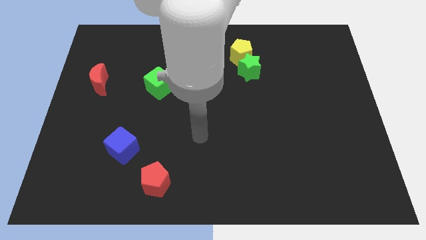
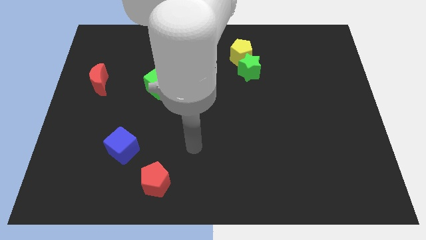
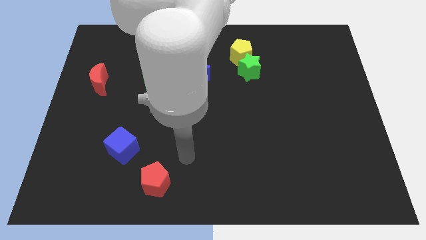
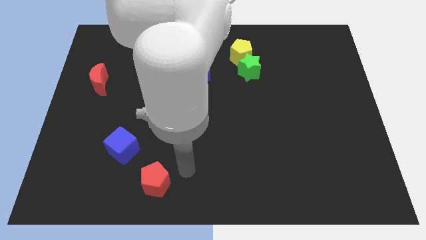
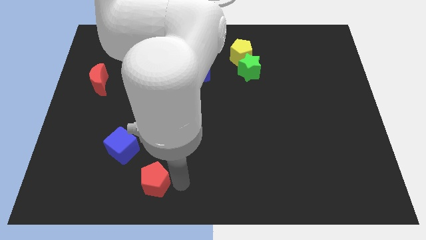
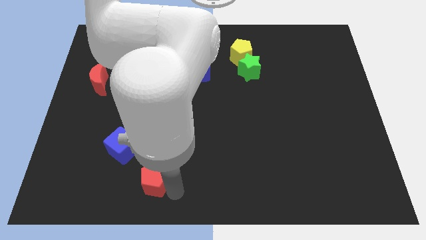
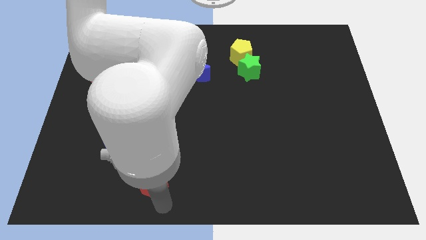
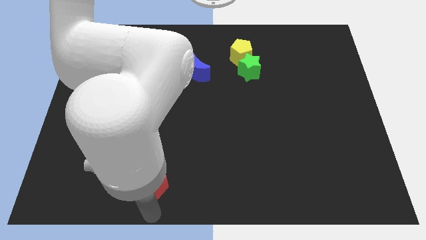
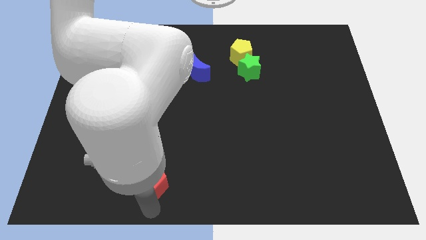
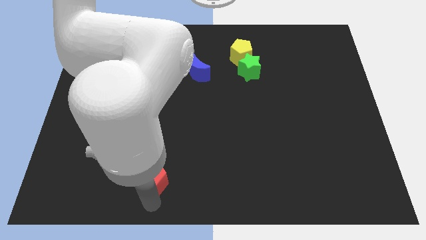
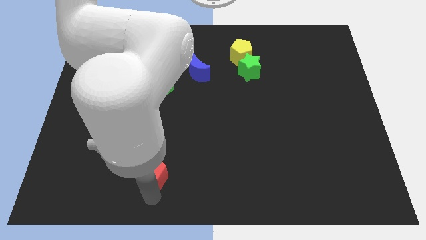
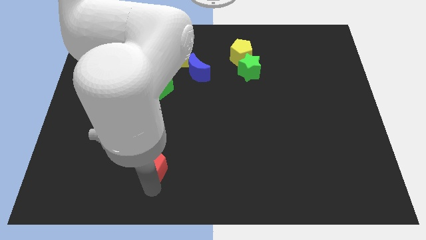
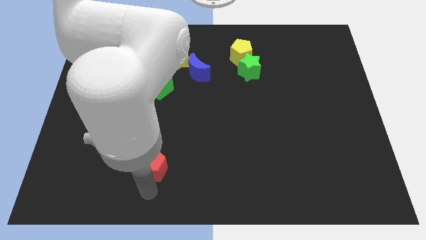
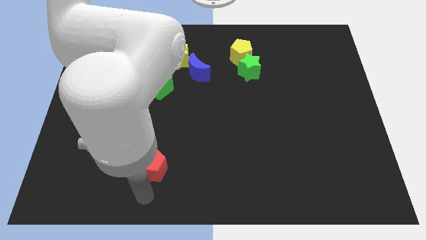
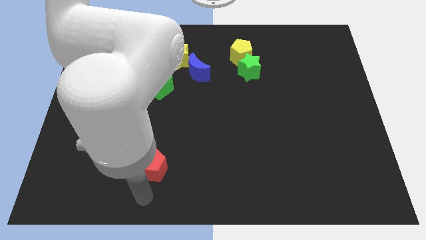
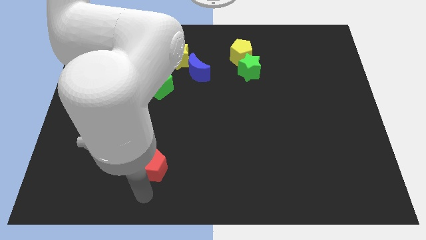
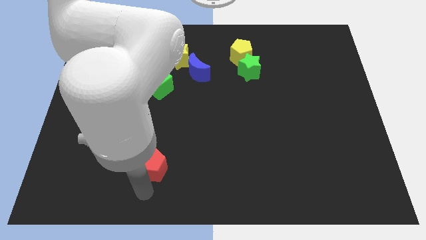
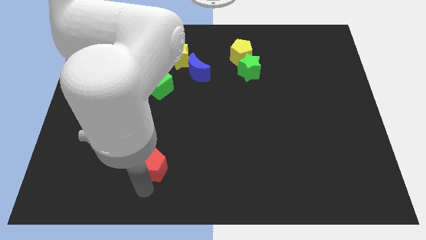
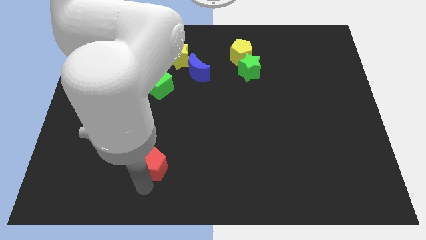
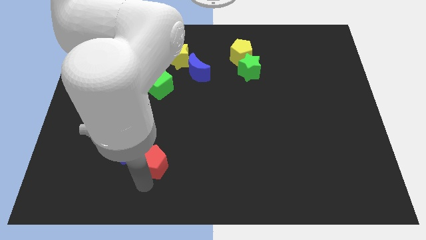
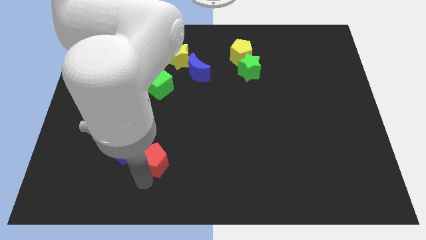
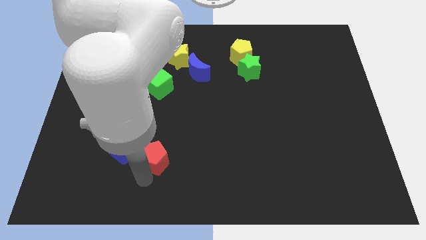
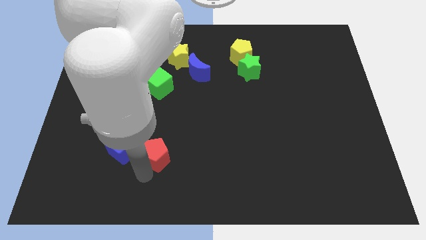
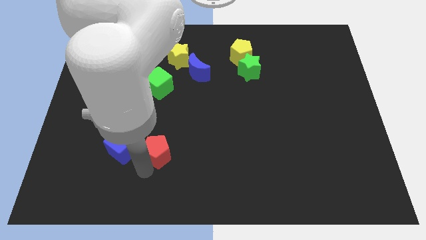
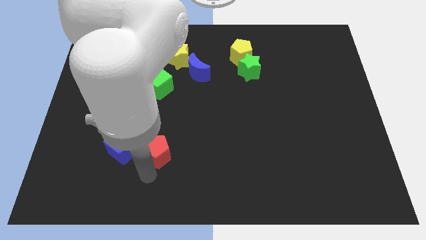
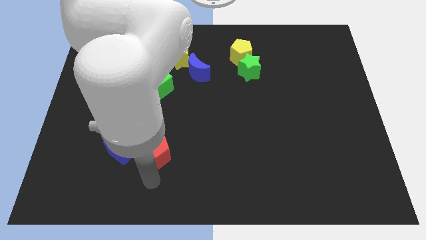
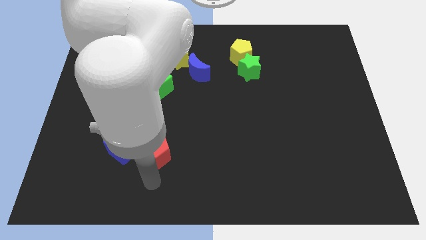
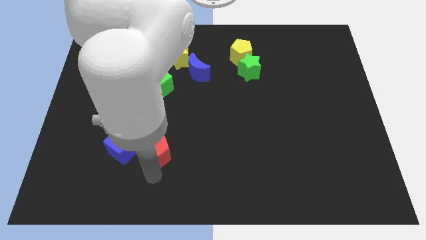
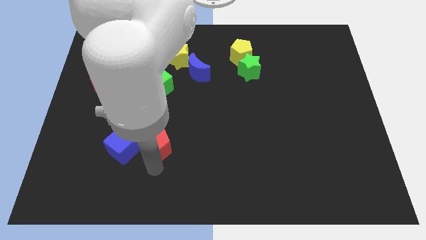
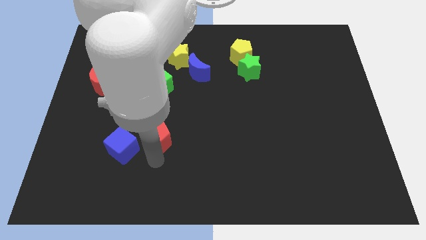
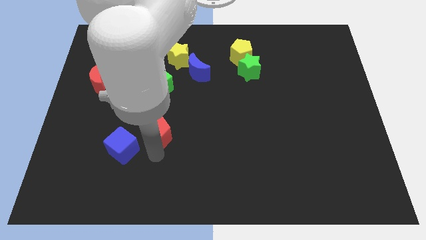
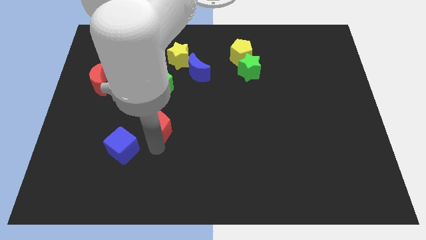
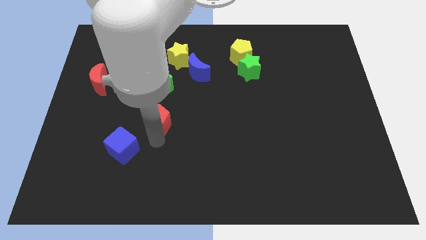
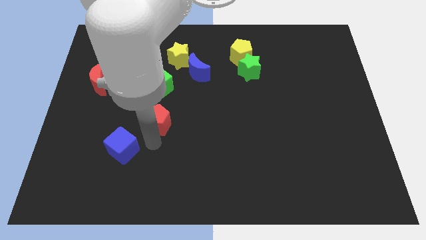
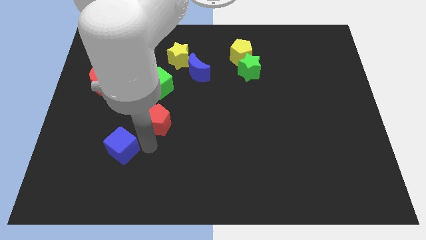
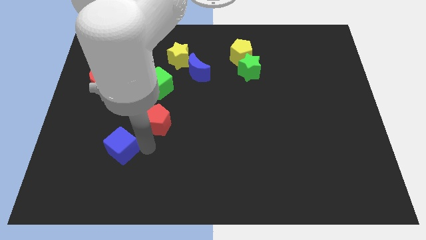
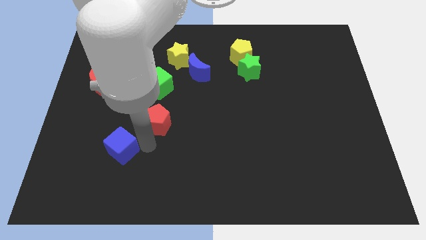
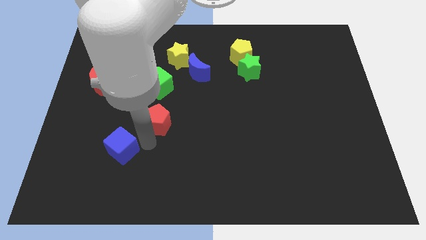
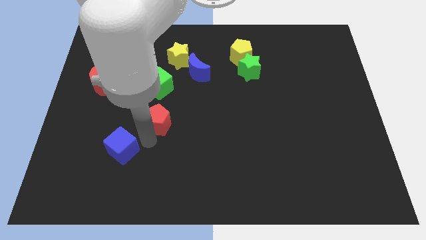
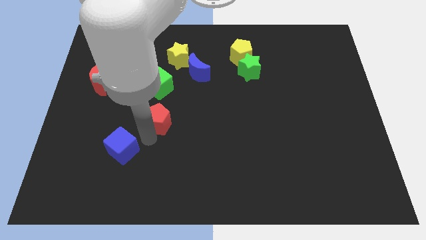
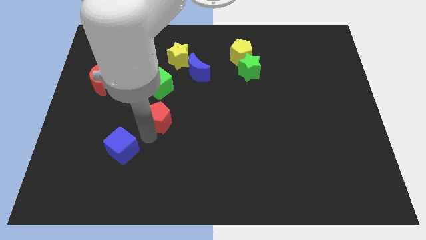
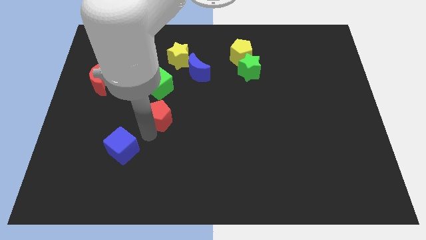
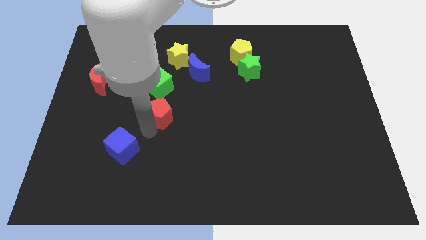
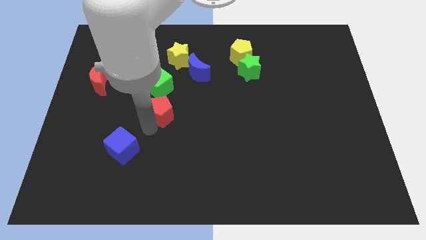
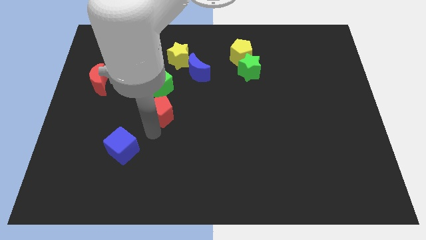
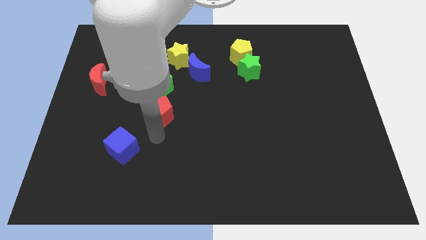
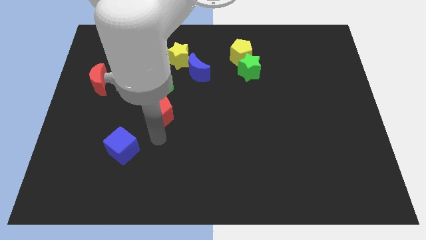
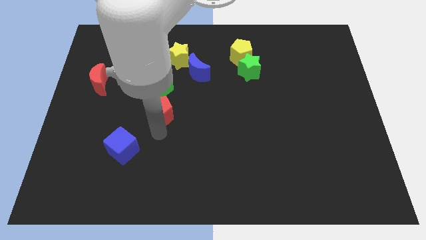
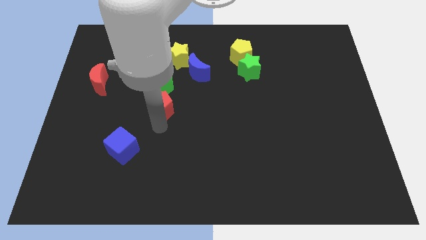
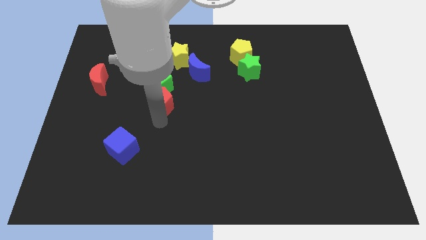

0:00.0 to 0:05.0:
push the red pentagon to the green cube

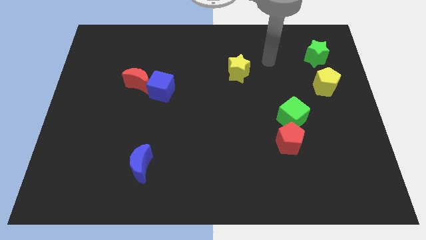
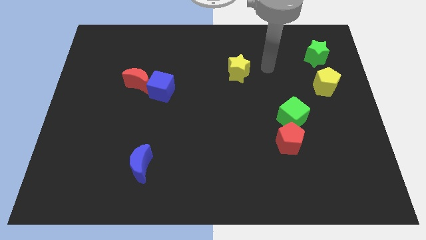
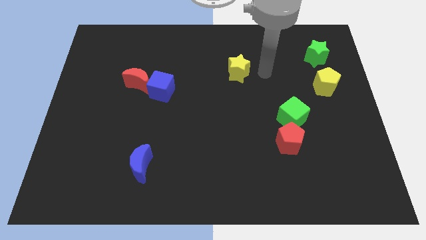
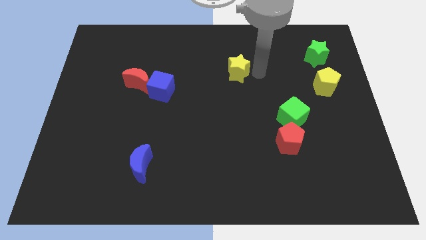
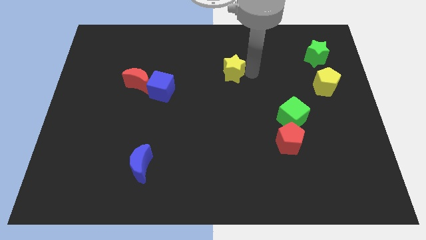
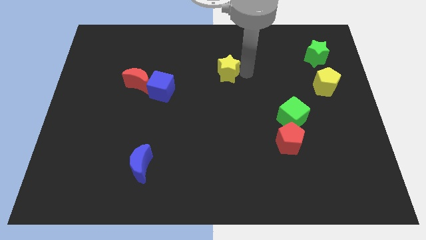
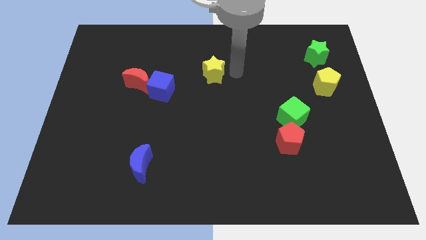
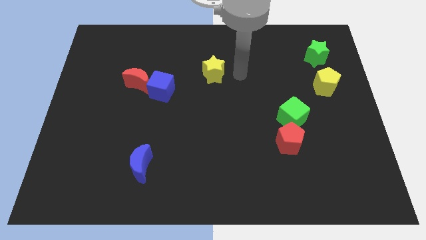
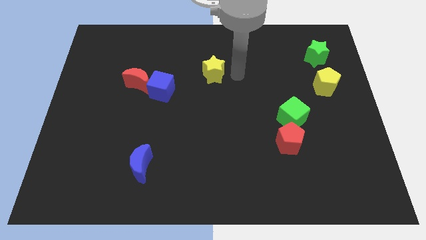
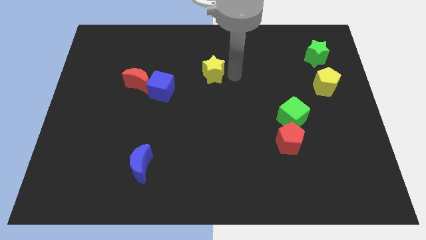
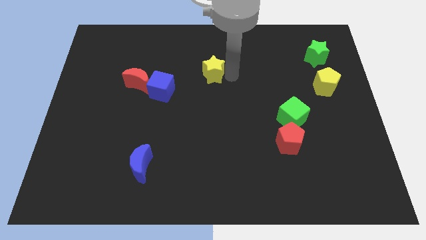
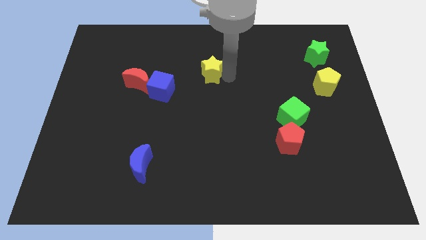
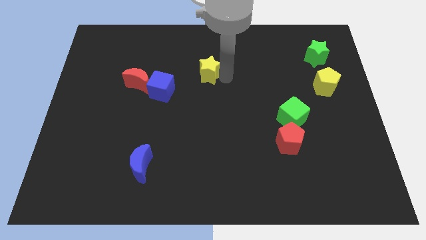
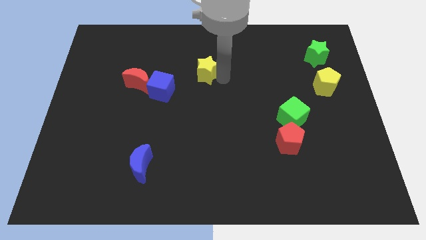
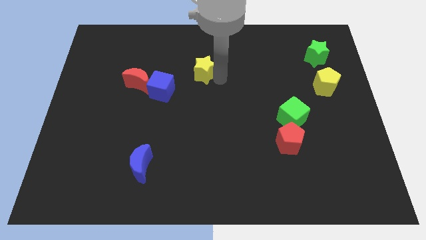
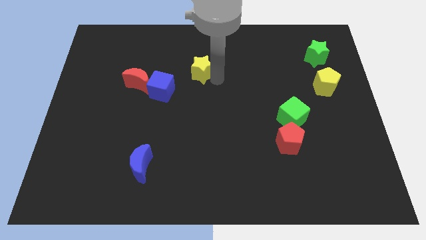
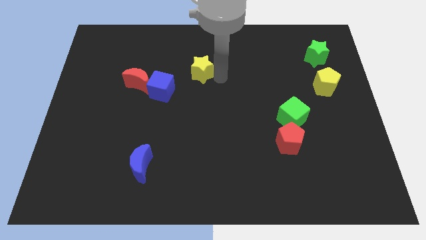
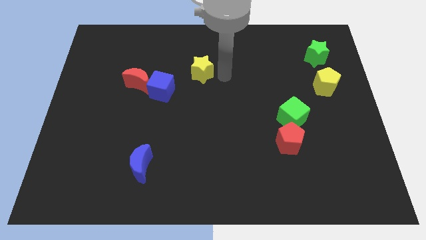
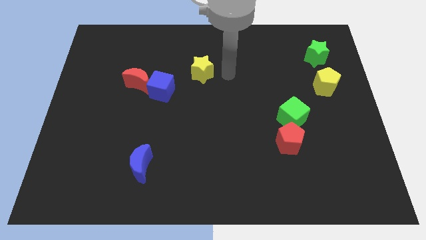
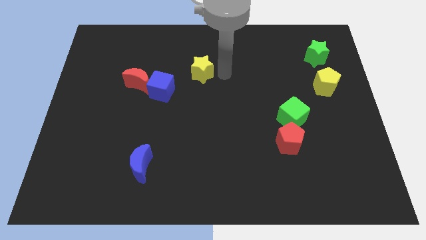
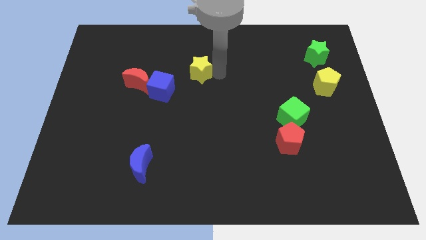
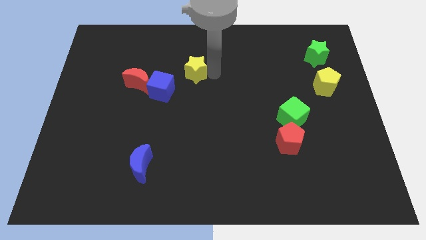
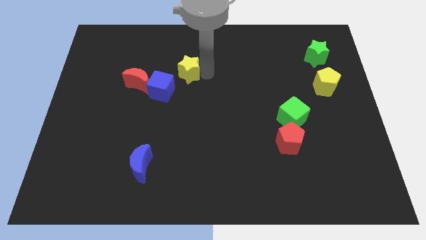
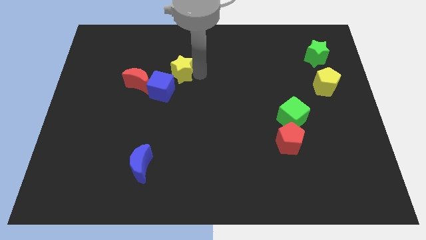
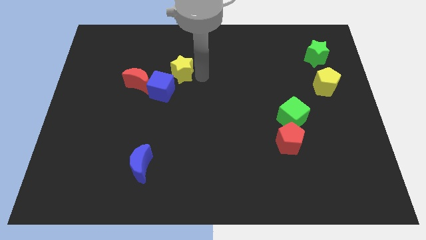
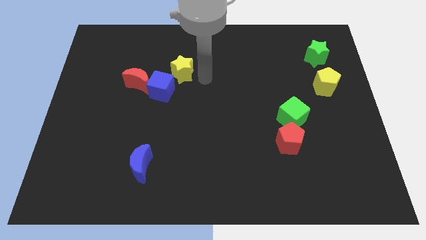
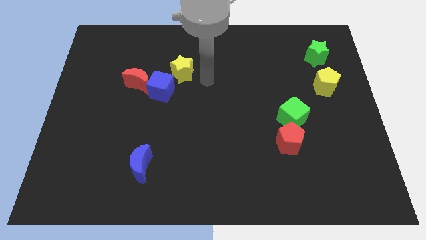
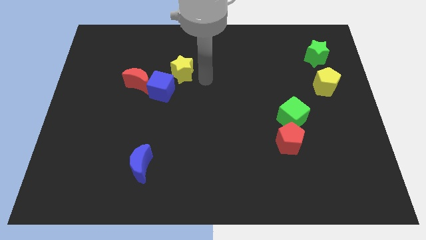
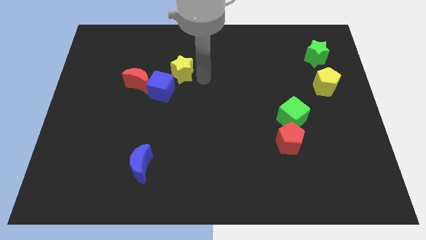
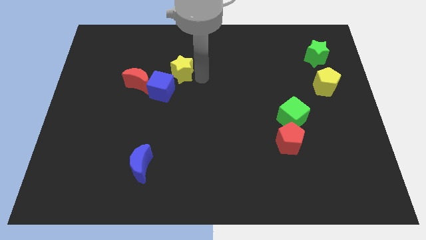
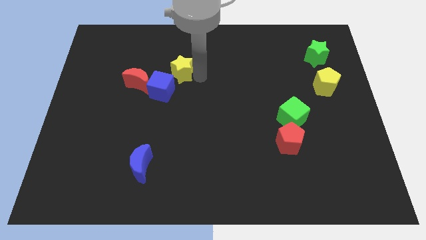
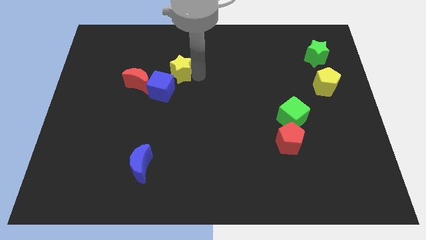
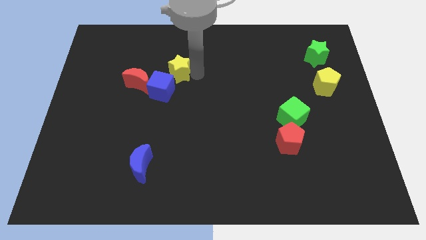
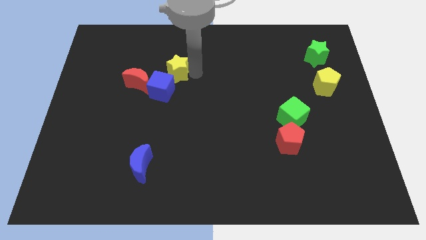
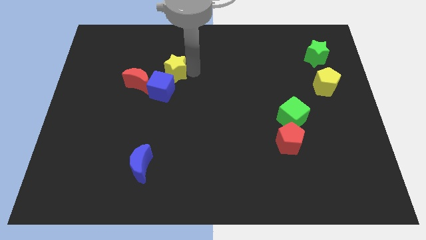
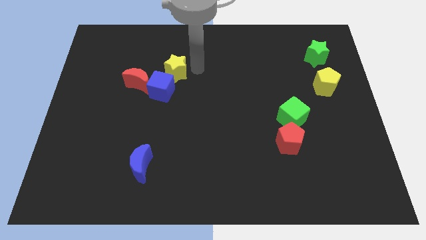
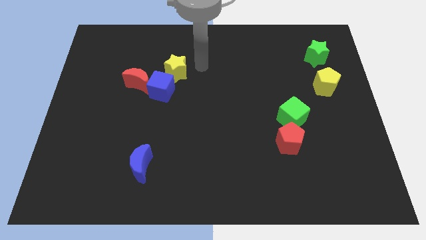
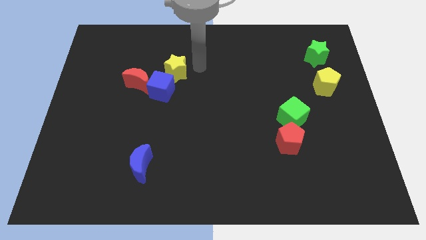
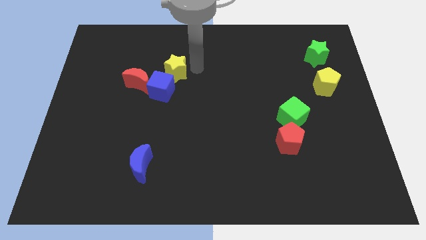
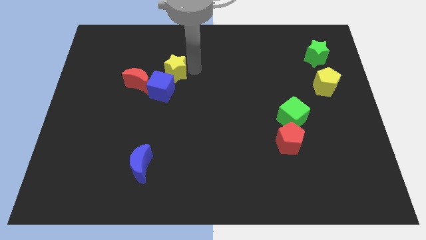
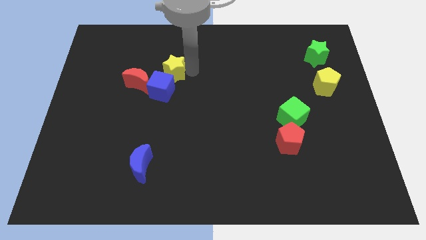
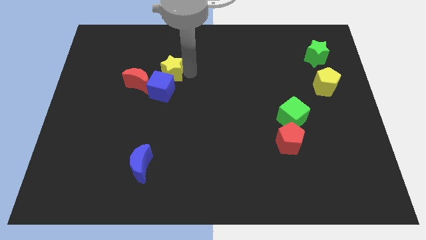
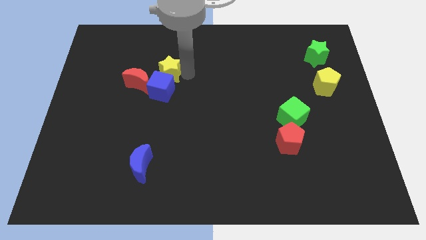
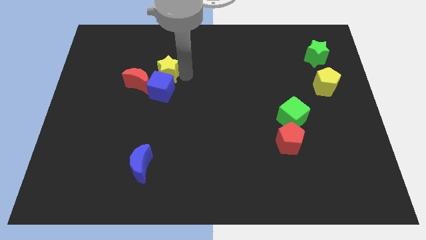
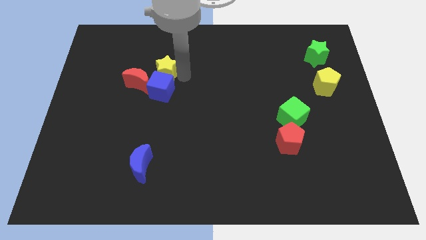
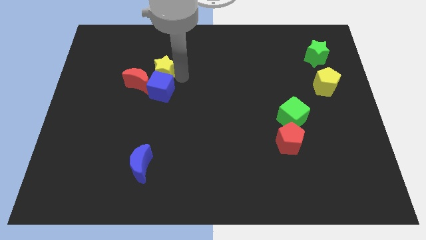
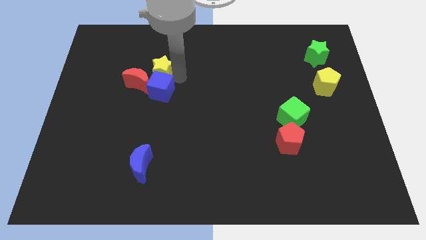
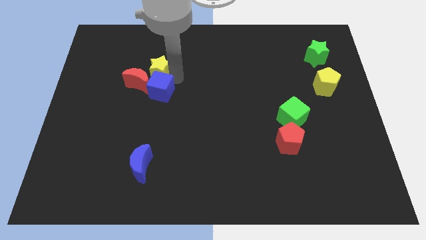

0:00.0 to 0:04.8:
move the yellow star next to the red moon
